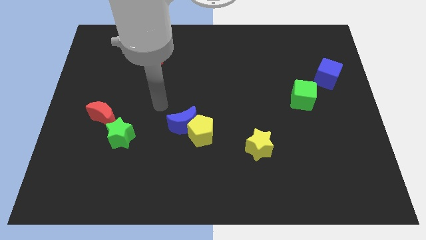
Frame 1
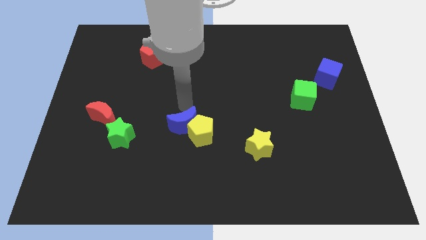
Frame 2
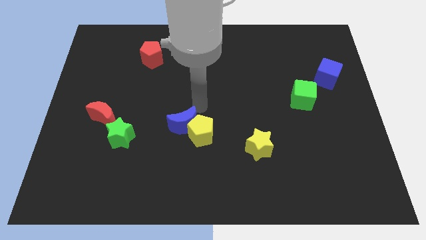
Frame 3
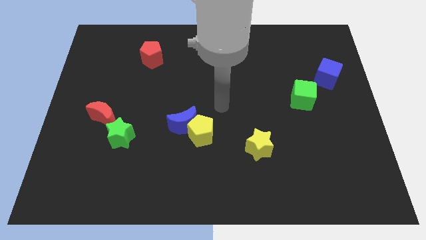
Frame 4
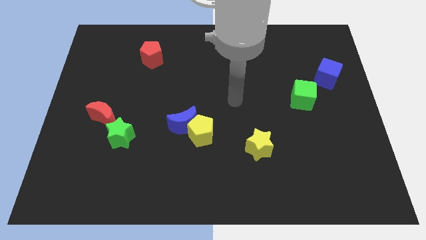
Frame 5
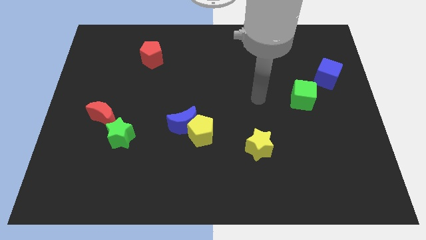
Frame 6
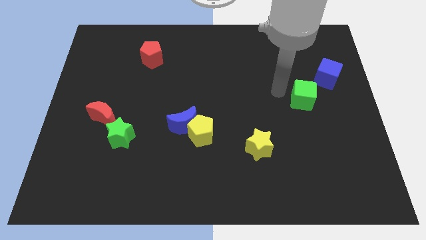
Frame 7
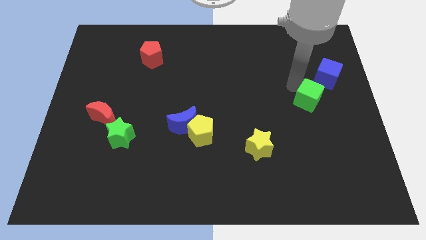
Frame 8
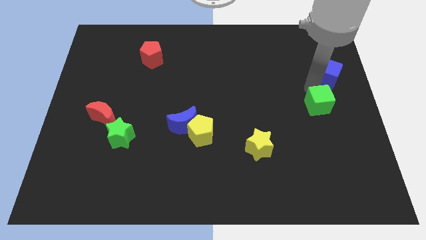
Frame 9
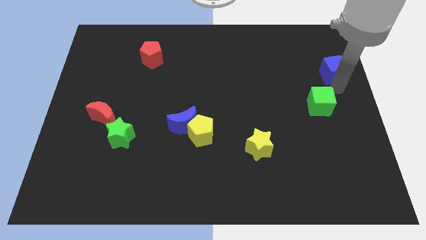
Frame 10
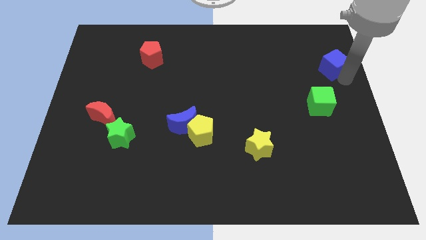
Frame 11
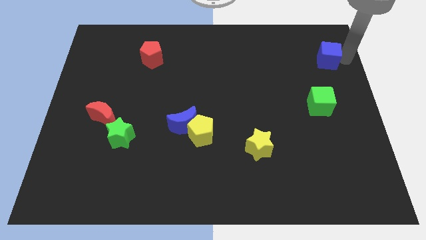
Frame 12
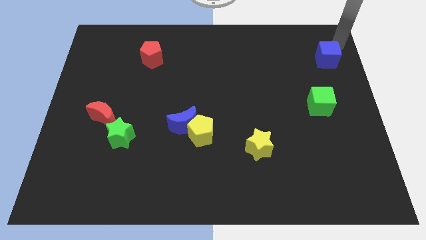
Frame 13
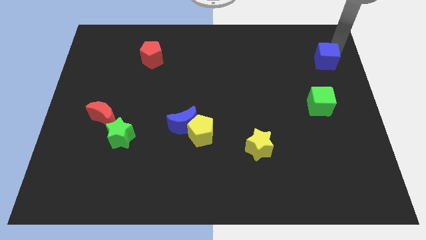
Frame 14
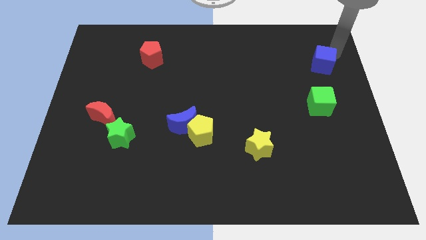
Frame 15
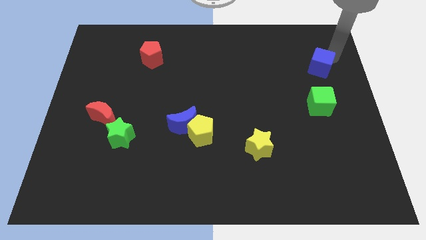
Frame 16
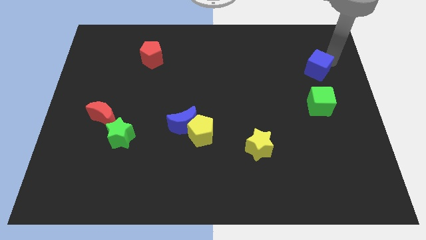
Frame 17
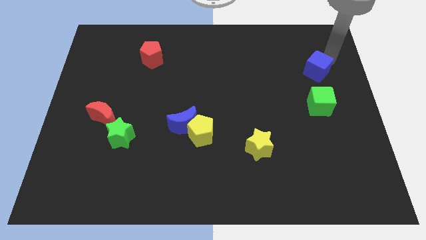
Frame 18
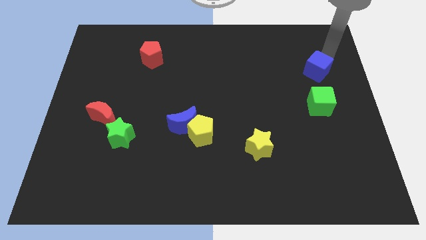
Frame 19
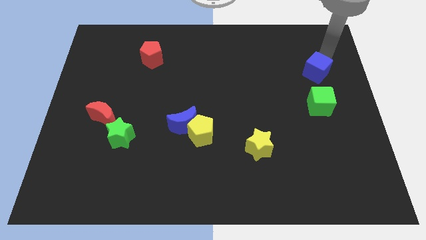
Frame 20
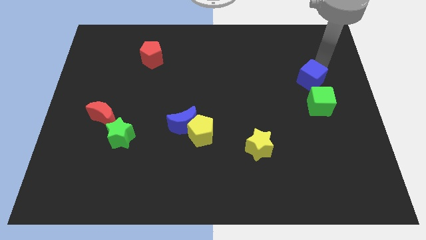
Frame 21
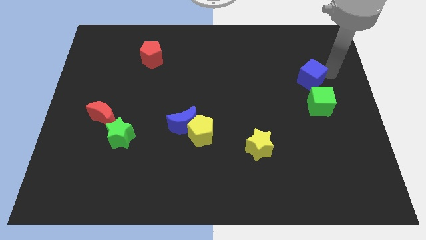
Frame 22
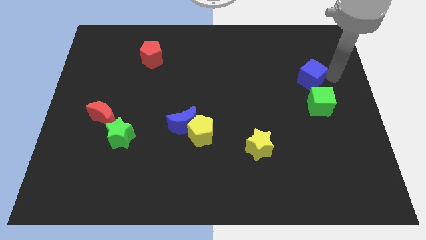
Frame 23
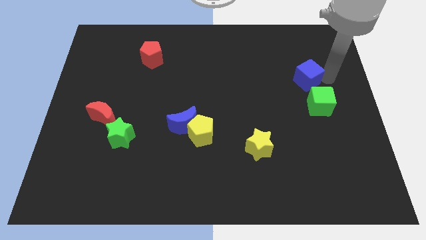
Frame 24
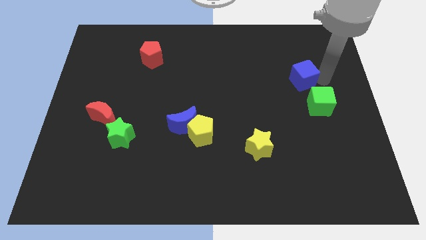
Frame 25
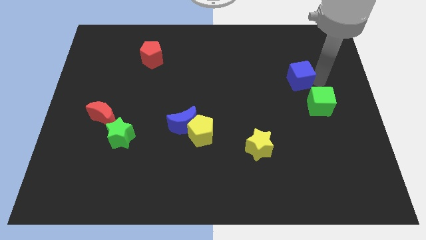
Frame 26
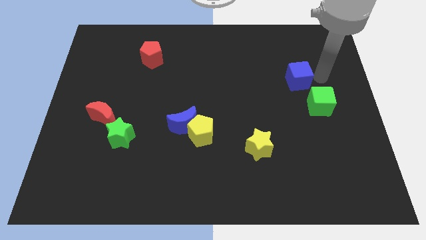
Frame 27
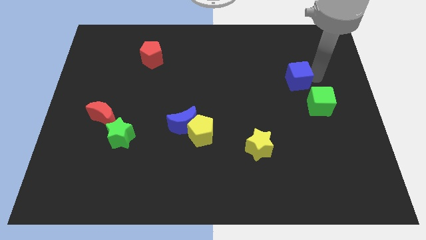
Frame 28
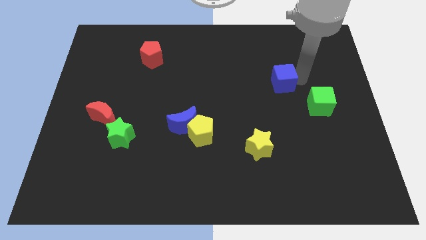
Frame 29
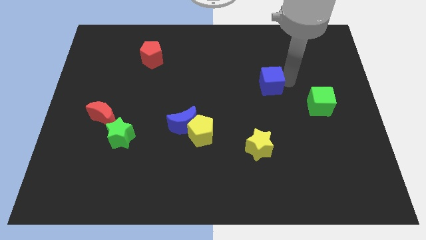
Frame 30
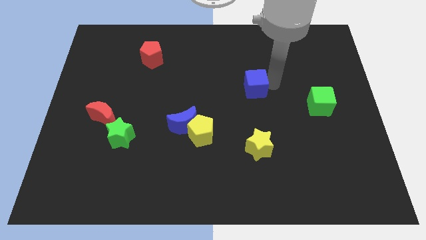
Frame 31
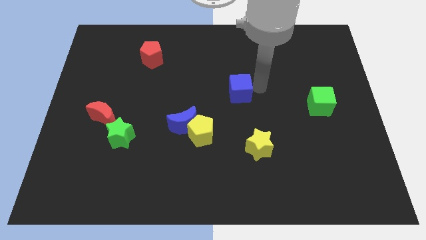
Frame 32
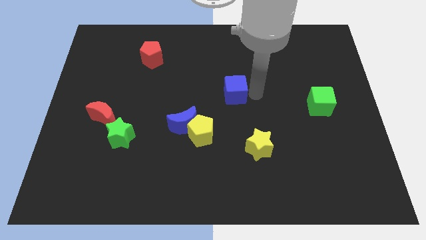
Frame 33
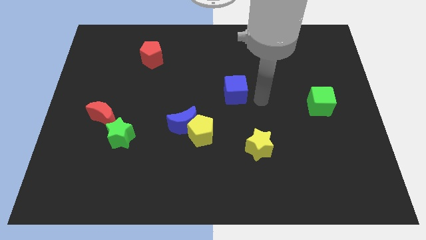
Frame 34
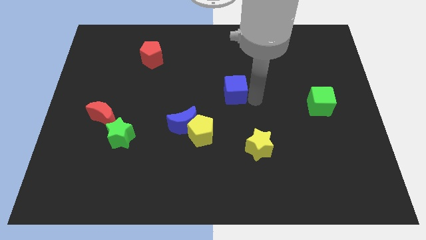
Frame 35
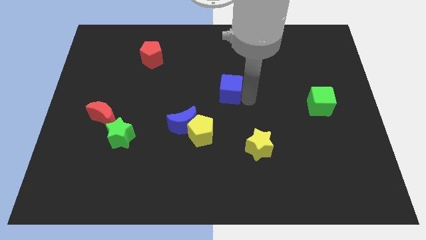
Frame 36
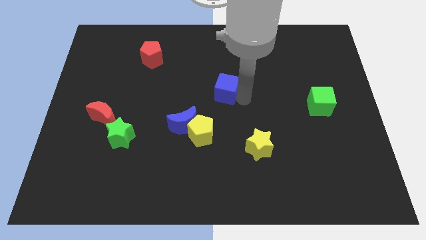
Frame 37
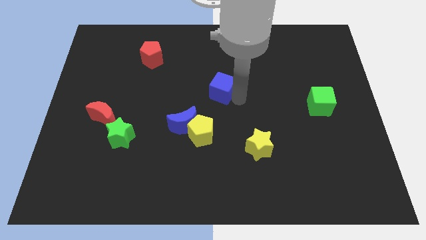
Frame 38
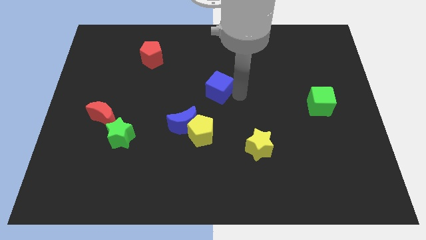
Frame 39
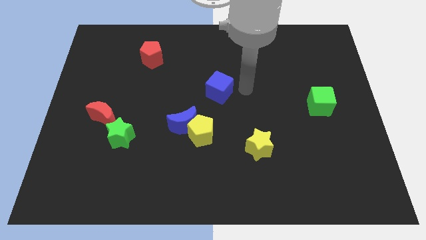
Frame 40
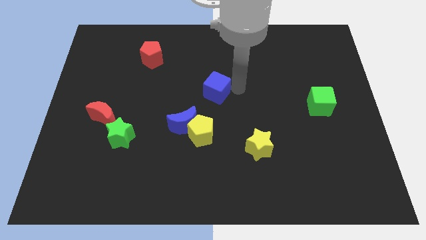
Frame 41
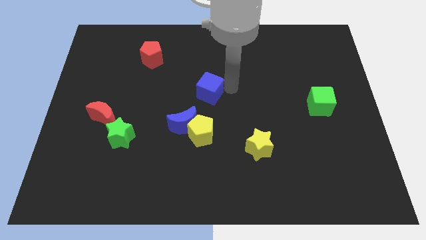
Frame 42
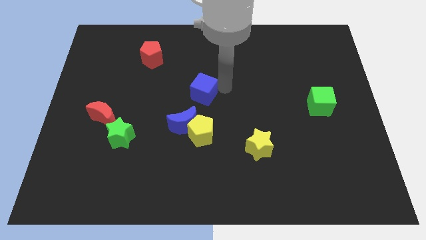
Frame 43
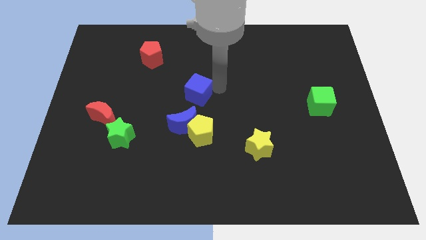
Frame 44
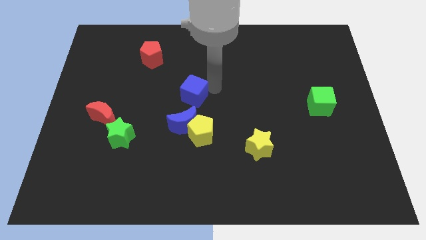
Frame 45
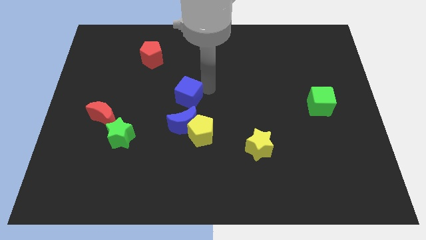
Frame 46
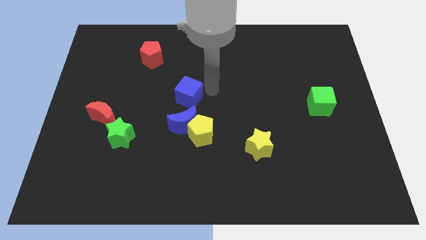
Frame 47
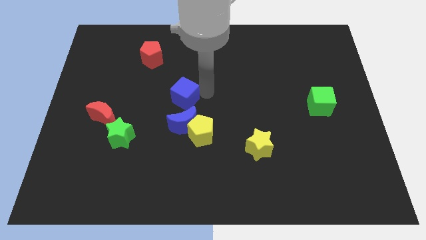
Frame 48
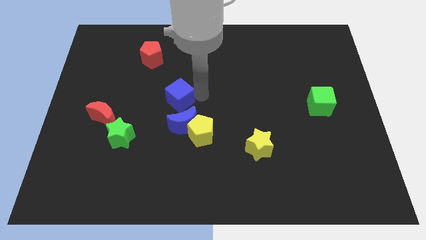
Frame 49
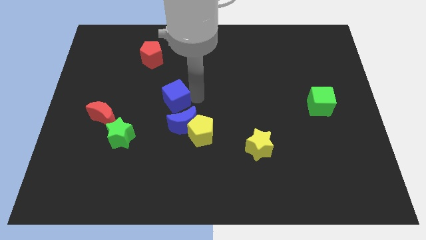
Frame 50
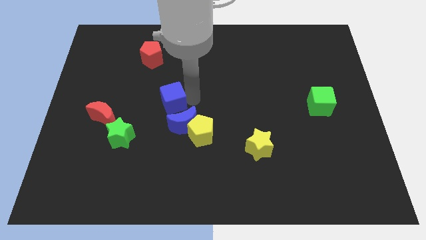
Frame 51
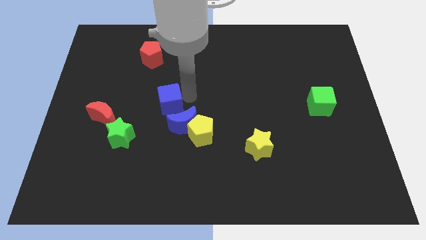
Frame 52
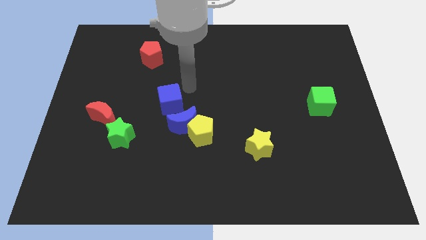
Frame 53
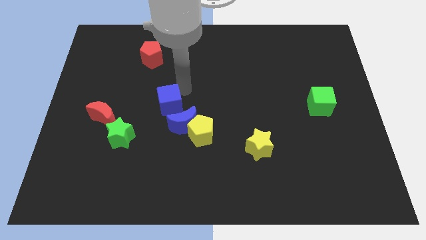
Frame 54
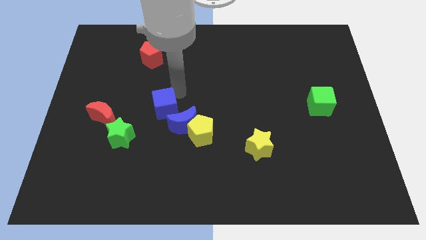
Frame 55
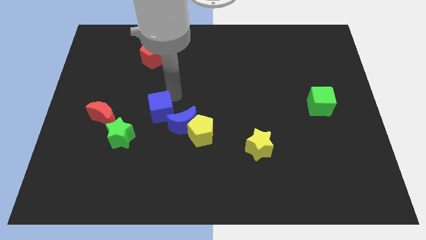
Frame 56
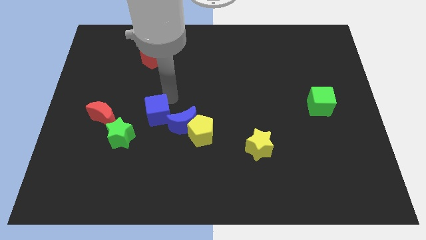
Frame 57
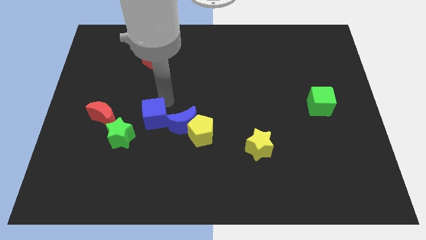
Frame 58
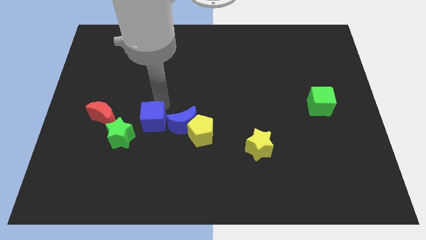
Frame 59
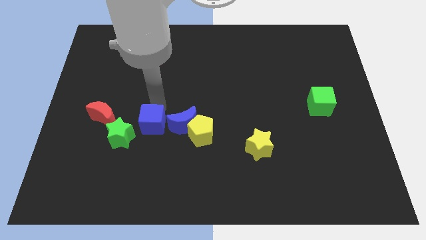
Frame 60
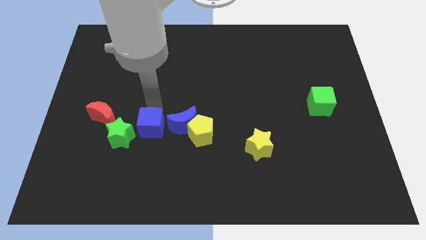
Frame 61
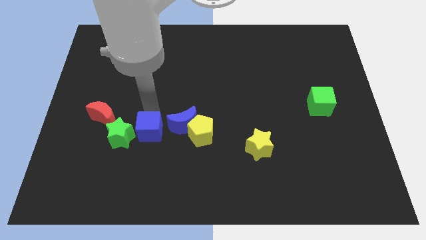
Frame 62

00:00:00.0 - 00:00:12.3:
slide the blue cube towards the green star

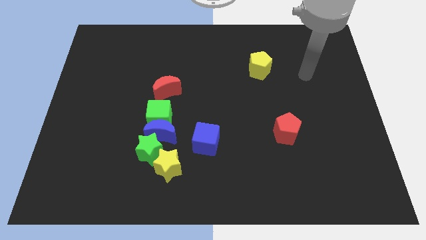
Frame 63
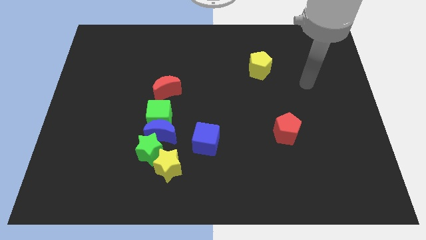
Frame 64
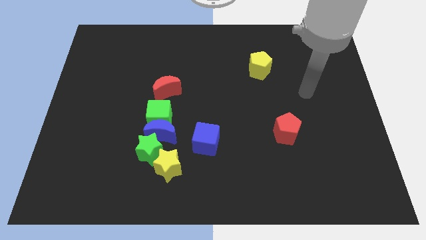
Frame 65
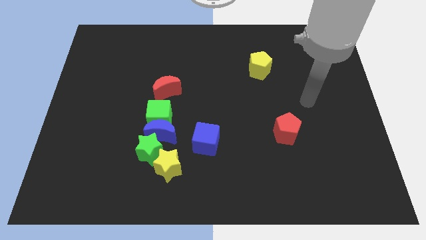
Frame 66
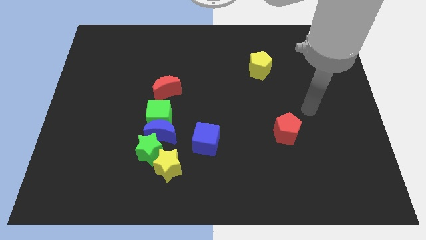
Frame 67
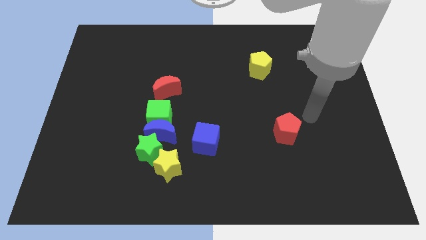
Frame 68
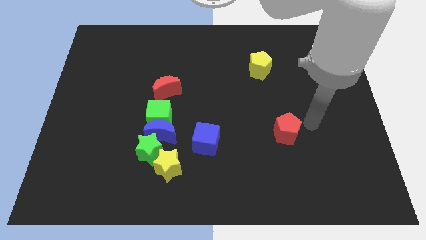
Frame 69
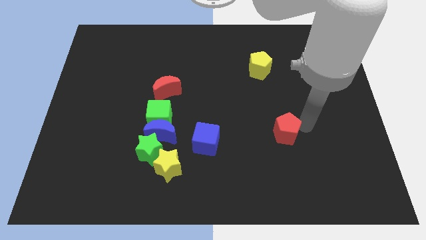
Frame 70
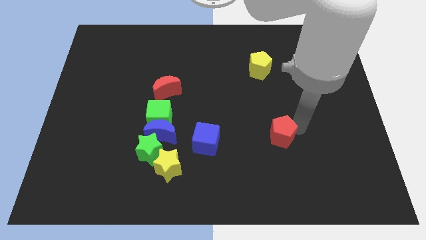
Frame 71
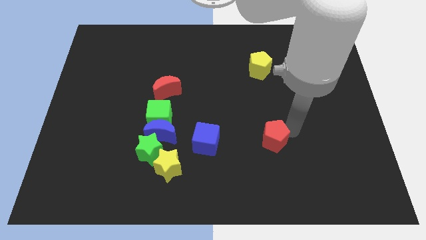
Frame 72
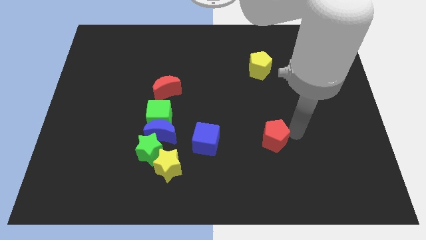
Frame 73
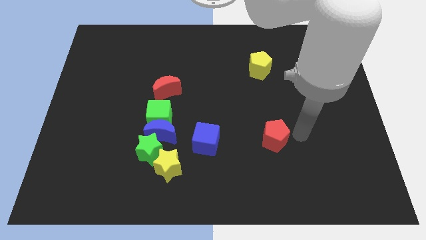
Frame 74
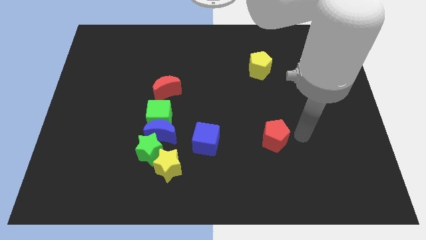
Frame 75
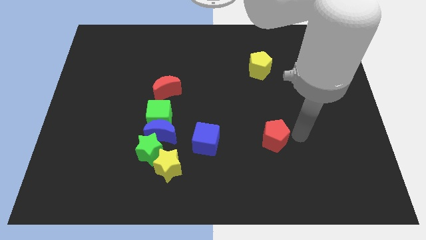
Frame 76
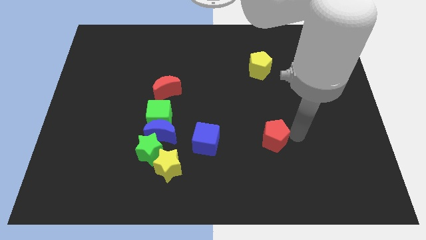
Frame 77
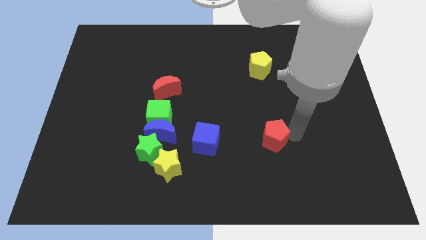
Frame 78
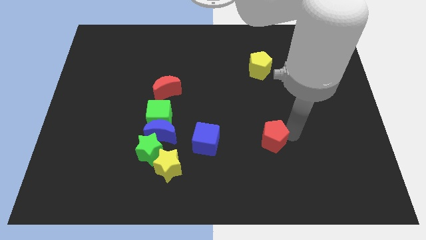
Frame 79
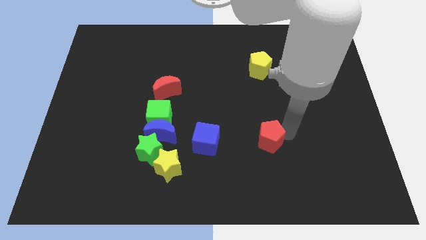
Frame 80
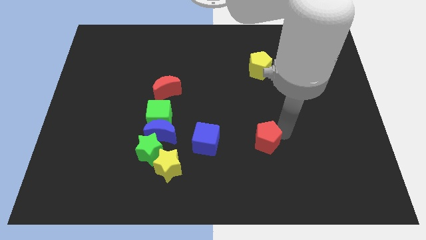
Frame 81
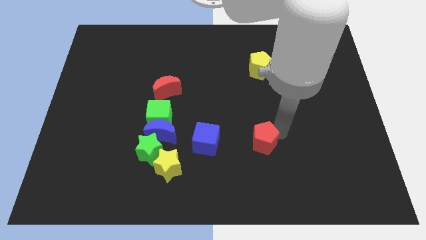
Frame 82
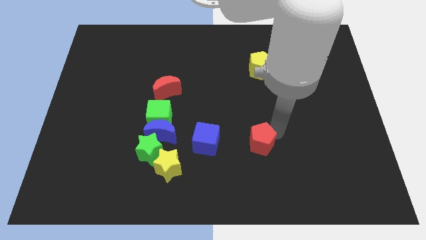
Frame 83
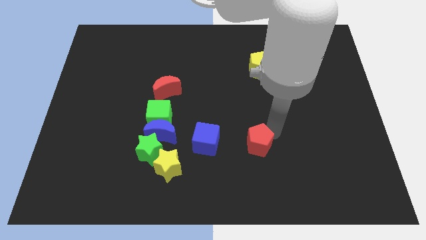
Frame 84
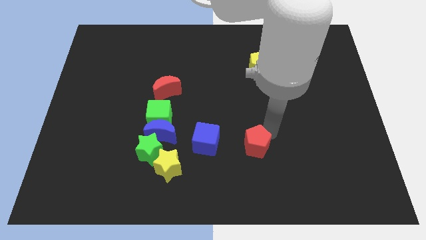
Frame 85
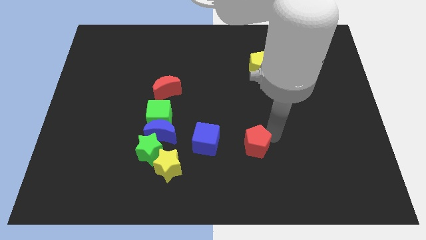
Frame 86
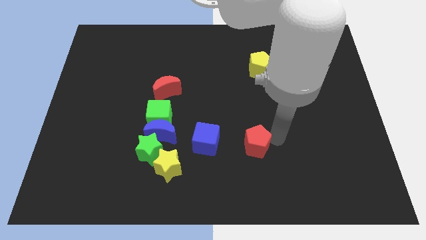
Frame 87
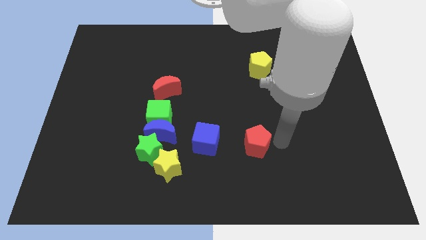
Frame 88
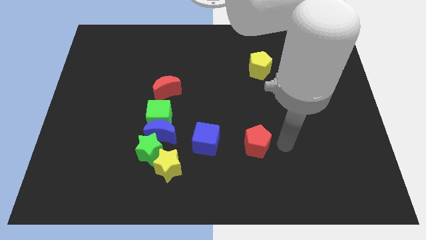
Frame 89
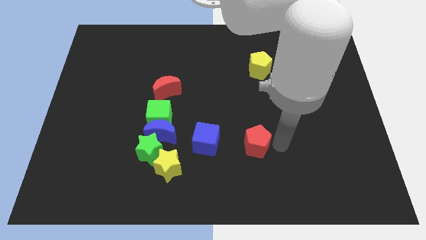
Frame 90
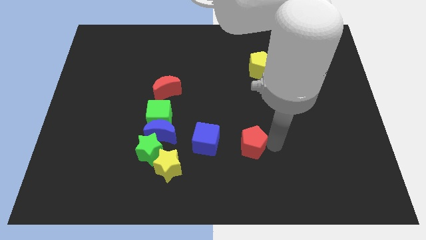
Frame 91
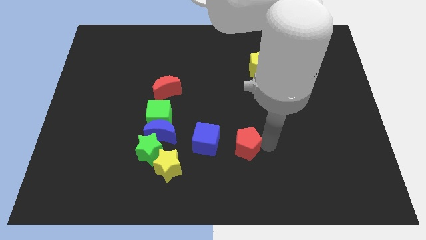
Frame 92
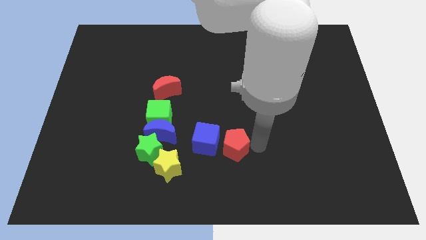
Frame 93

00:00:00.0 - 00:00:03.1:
put the red pentagon towards the blue cube
